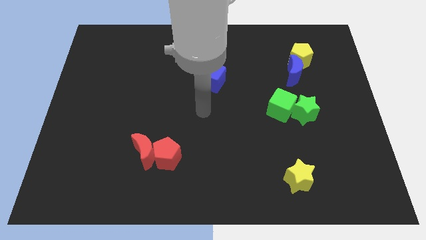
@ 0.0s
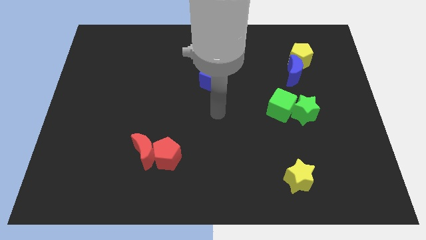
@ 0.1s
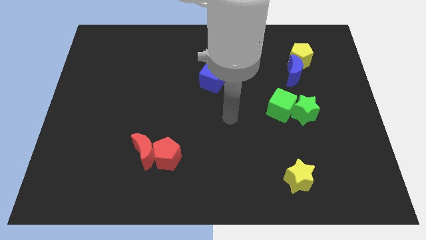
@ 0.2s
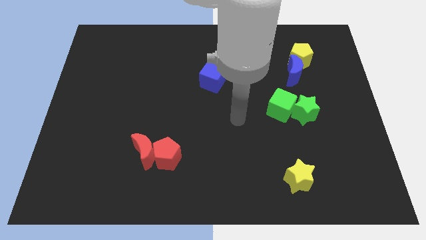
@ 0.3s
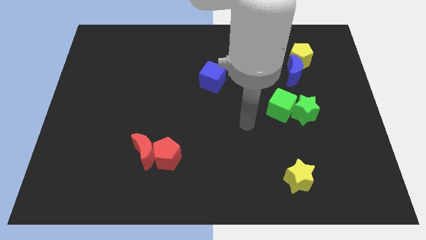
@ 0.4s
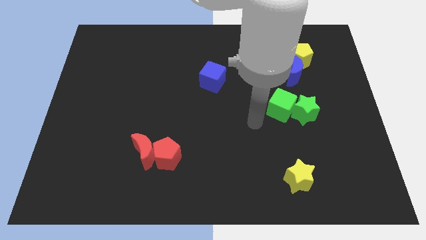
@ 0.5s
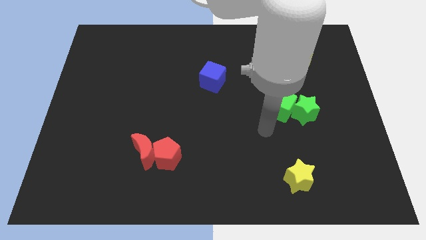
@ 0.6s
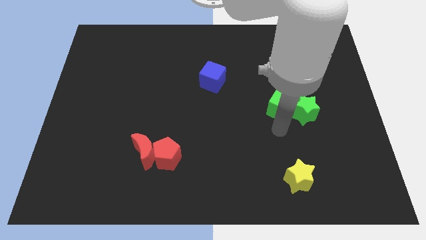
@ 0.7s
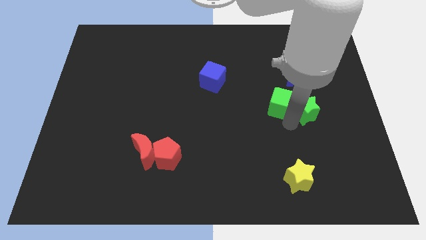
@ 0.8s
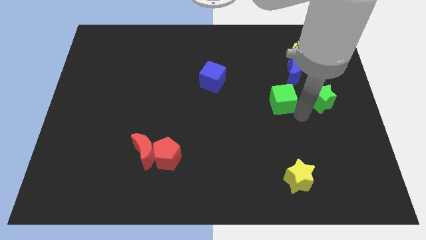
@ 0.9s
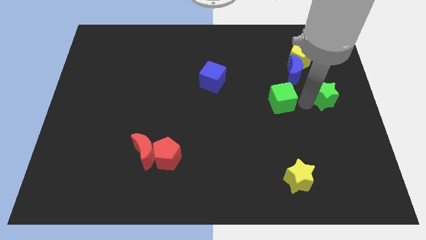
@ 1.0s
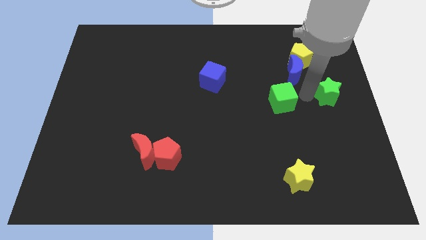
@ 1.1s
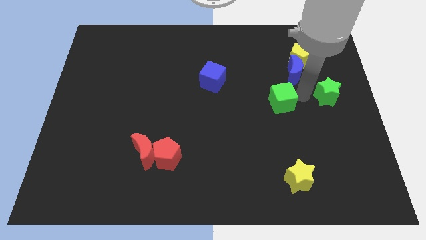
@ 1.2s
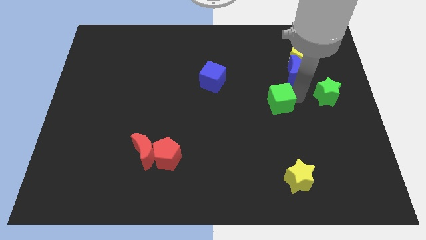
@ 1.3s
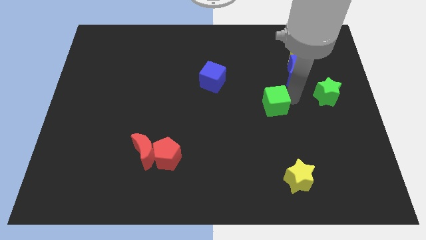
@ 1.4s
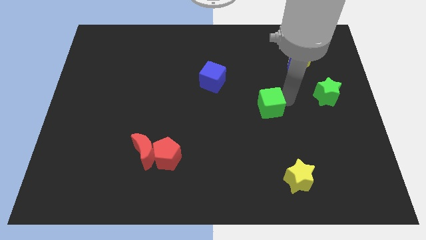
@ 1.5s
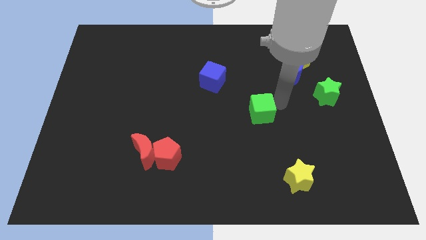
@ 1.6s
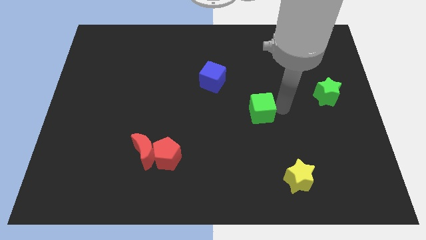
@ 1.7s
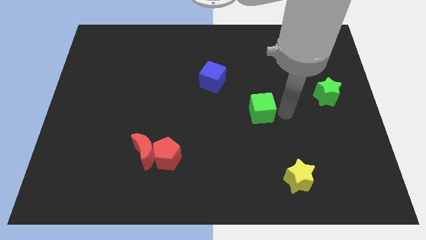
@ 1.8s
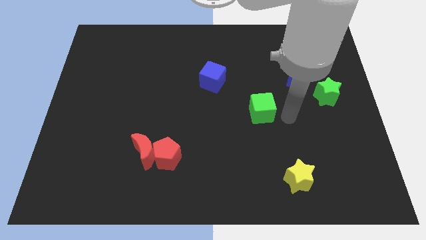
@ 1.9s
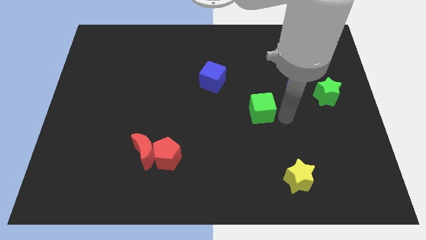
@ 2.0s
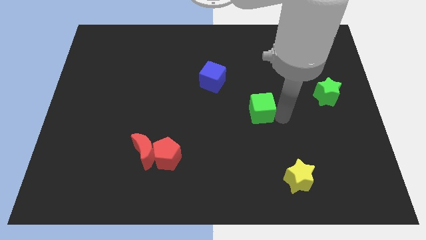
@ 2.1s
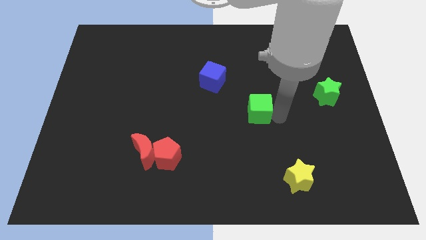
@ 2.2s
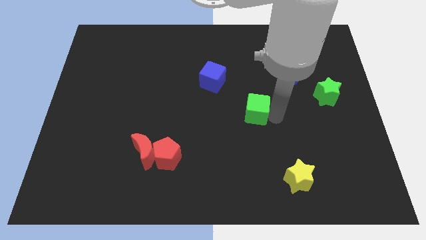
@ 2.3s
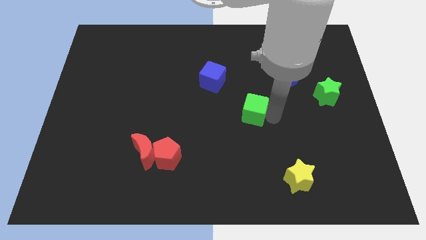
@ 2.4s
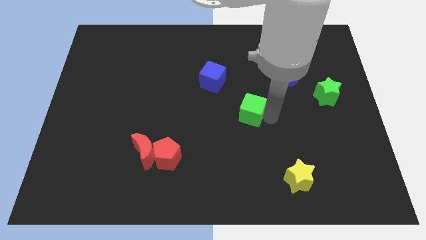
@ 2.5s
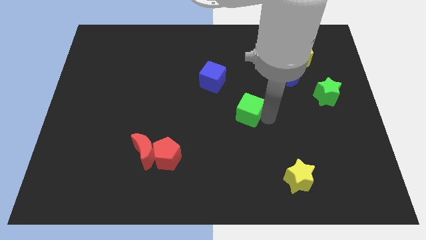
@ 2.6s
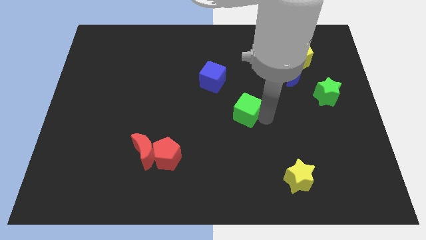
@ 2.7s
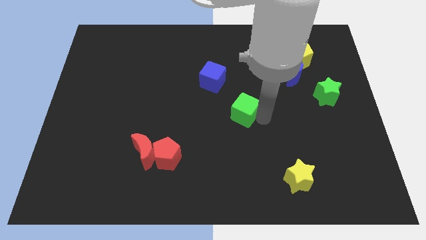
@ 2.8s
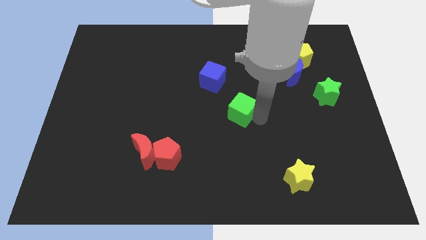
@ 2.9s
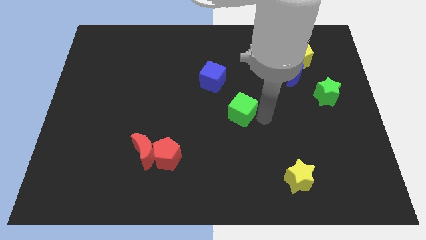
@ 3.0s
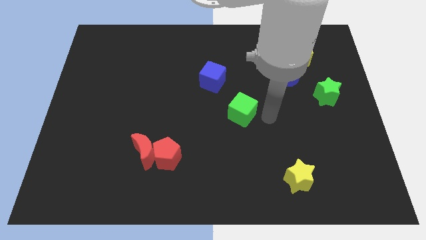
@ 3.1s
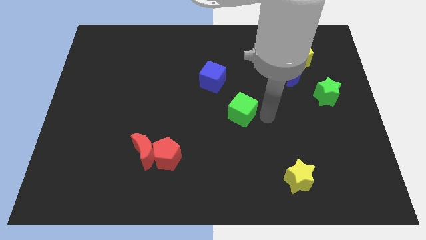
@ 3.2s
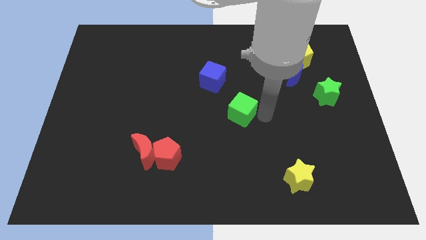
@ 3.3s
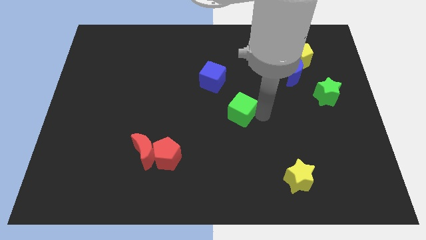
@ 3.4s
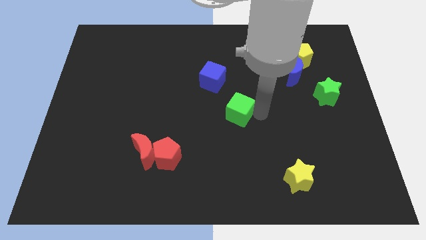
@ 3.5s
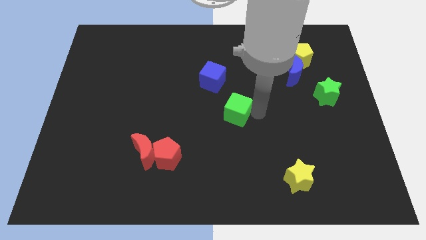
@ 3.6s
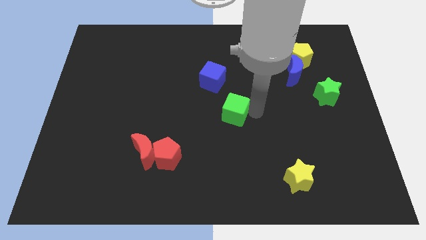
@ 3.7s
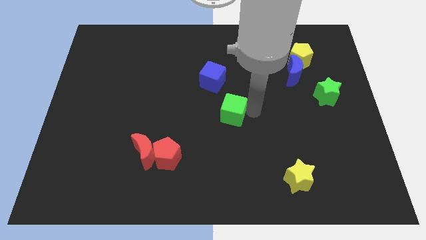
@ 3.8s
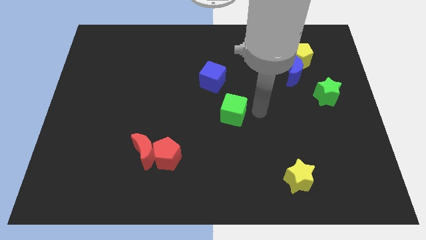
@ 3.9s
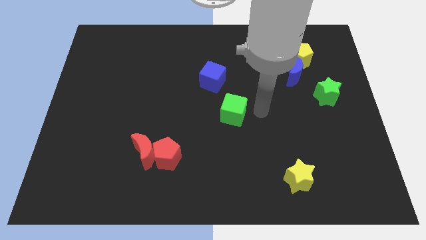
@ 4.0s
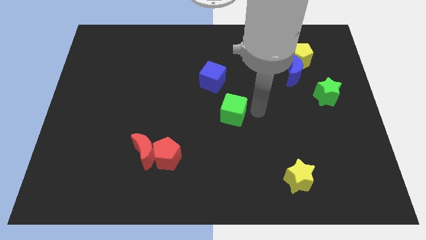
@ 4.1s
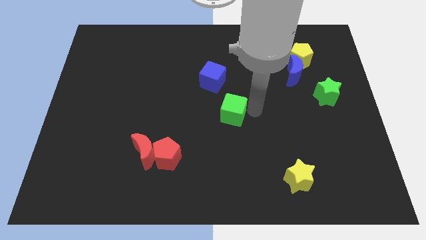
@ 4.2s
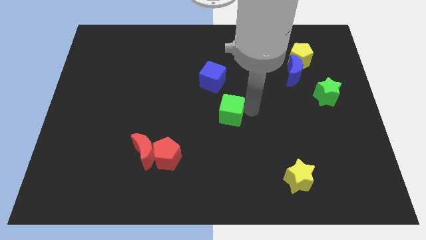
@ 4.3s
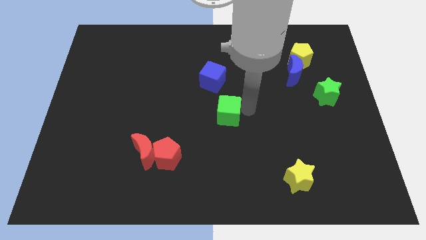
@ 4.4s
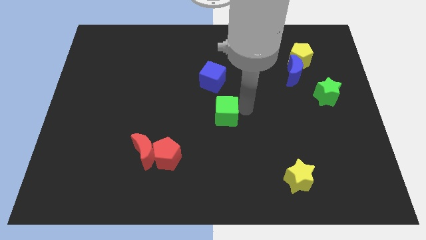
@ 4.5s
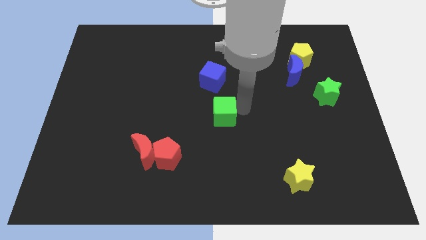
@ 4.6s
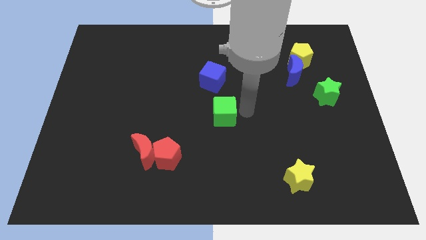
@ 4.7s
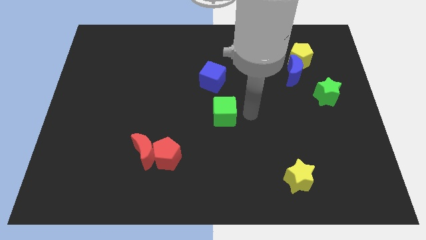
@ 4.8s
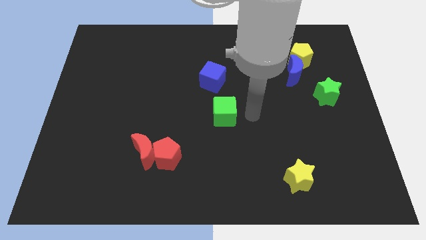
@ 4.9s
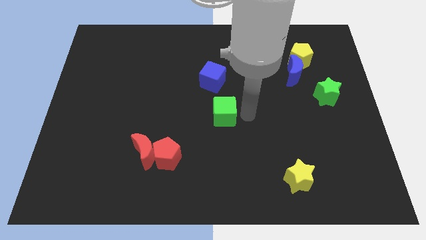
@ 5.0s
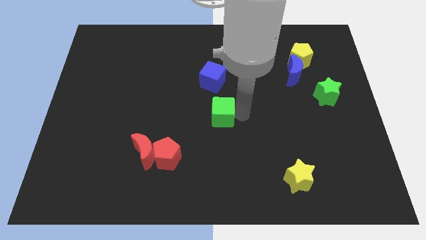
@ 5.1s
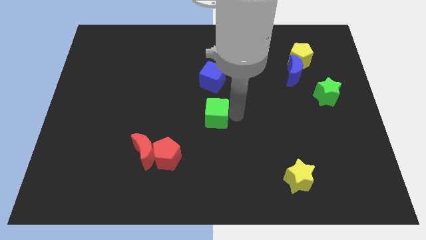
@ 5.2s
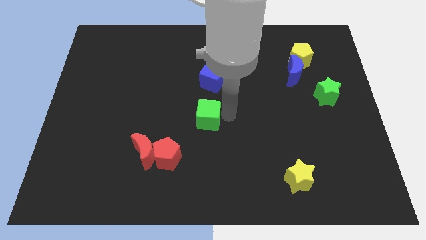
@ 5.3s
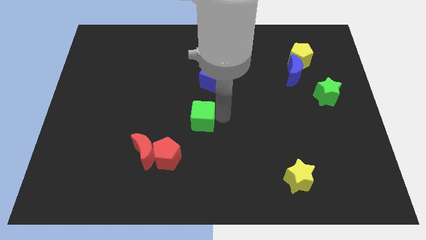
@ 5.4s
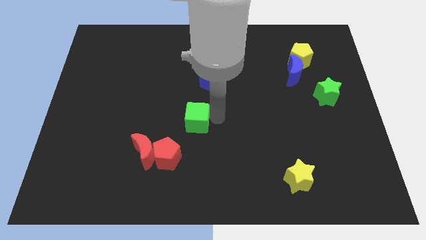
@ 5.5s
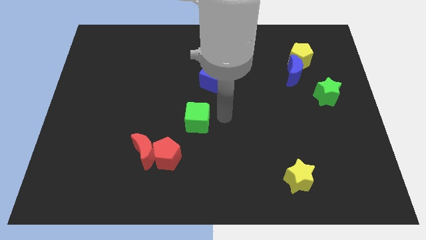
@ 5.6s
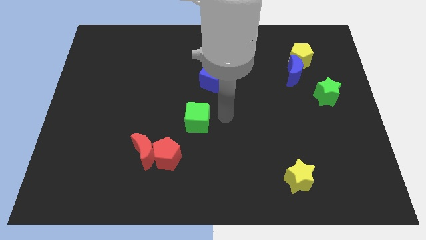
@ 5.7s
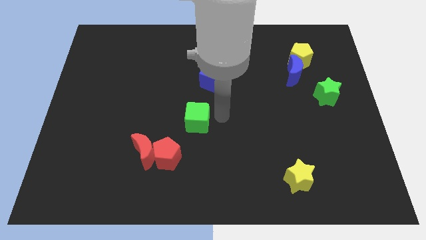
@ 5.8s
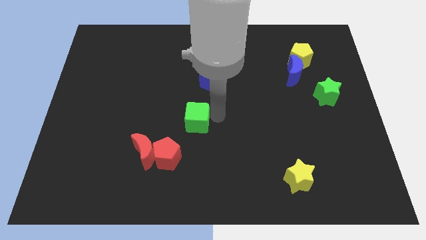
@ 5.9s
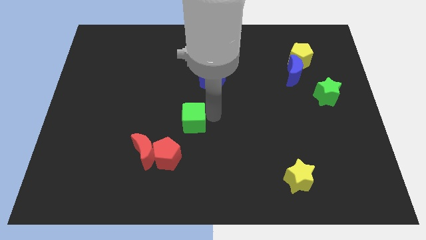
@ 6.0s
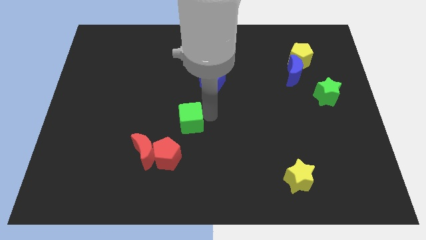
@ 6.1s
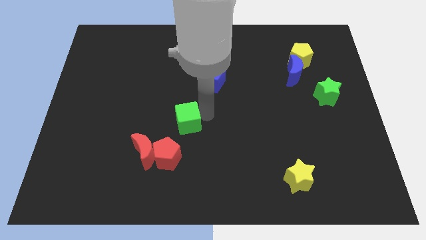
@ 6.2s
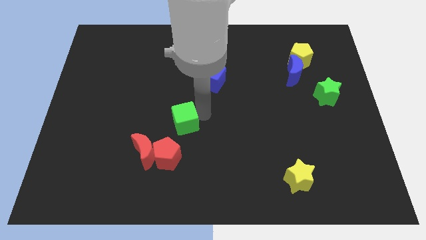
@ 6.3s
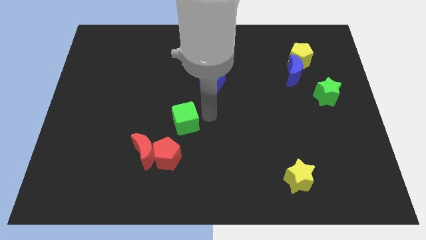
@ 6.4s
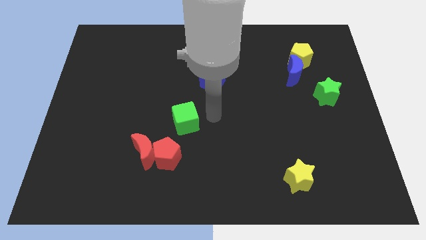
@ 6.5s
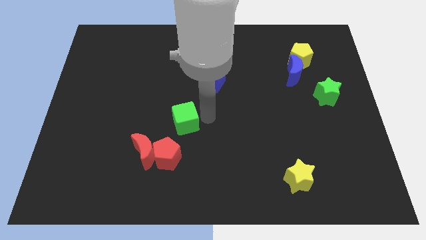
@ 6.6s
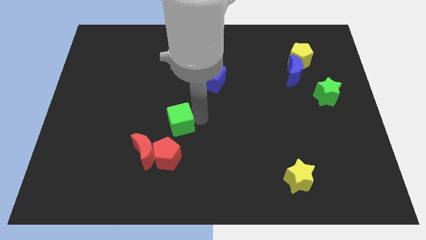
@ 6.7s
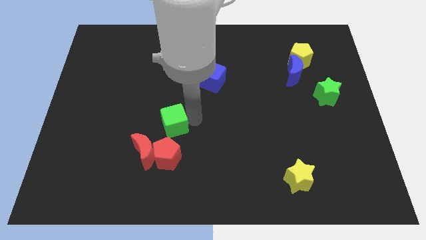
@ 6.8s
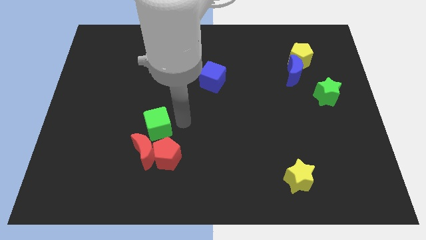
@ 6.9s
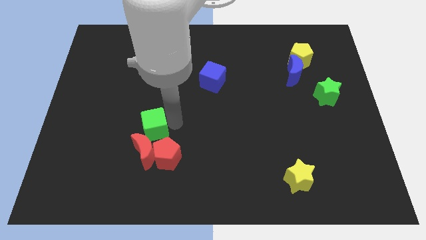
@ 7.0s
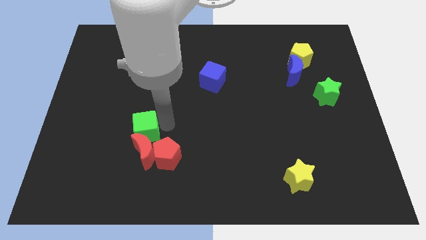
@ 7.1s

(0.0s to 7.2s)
push the green cube to the top left side of the red moon

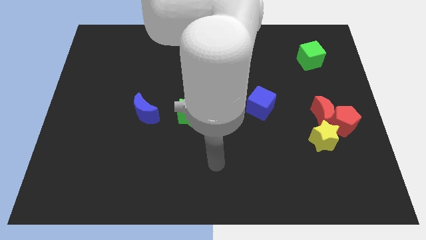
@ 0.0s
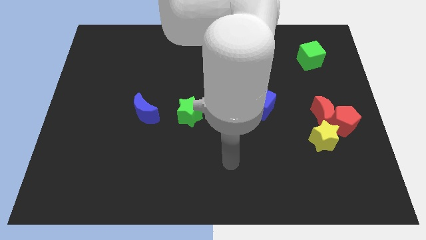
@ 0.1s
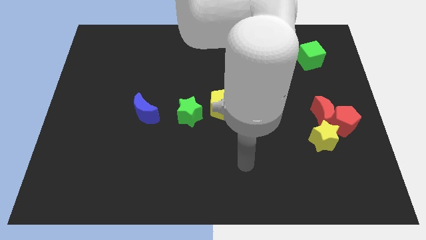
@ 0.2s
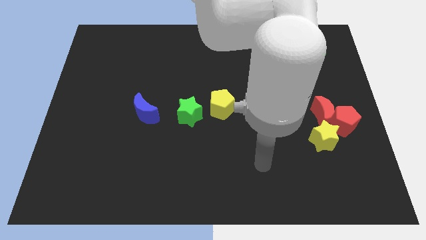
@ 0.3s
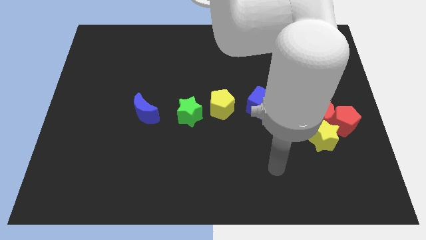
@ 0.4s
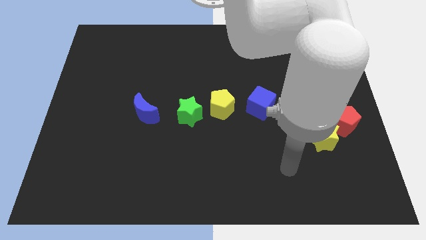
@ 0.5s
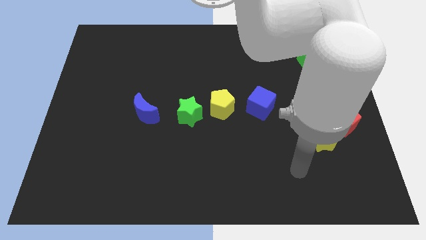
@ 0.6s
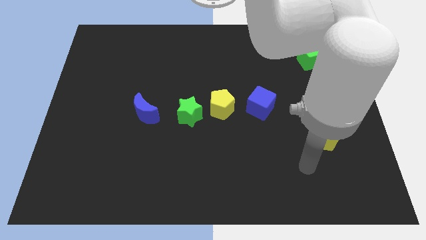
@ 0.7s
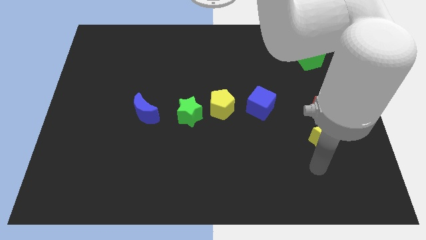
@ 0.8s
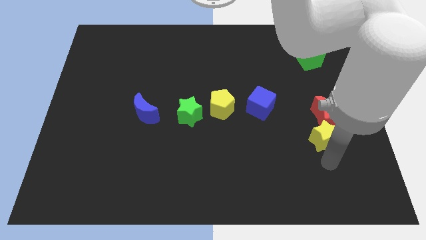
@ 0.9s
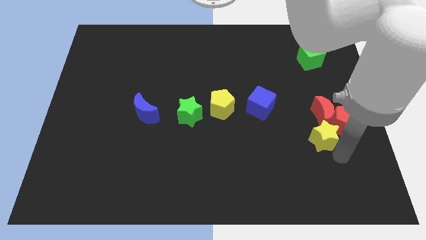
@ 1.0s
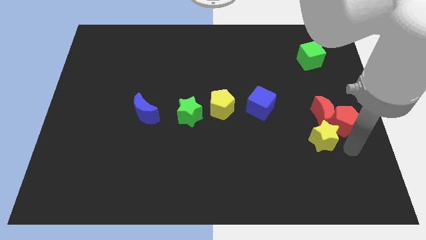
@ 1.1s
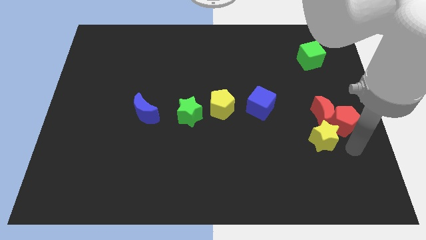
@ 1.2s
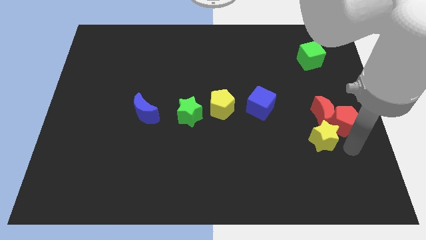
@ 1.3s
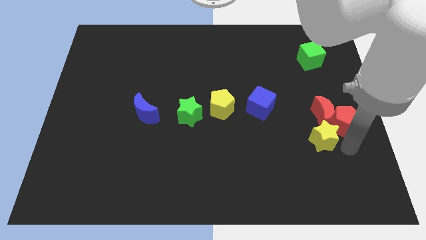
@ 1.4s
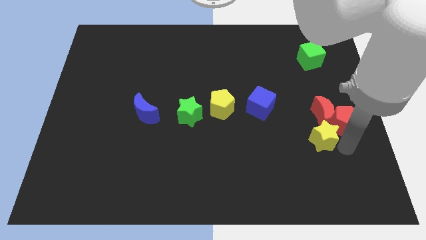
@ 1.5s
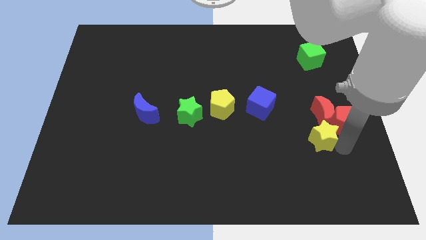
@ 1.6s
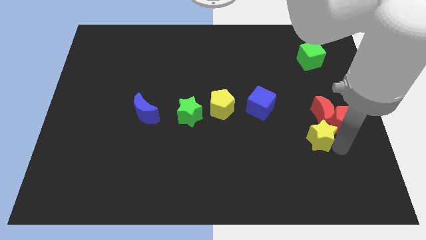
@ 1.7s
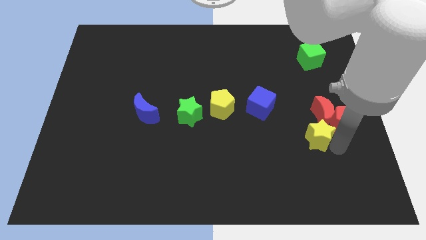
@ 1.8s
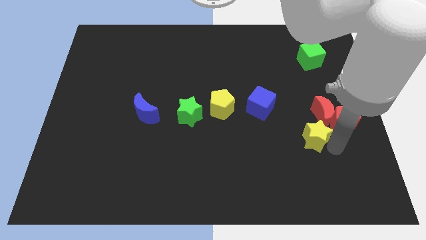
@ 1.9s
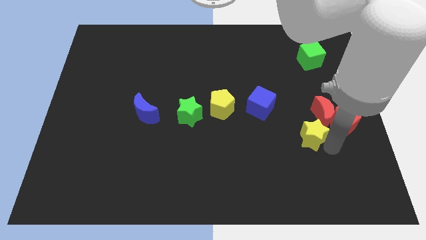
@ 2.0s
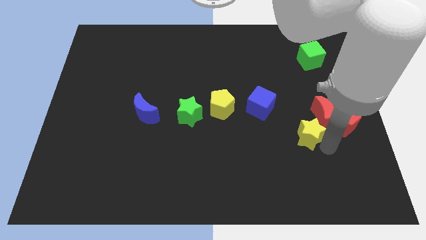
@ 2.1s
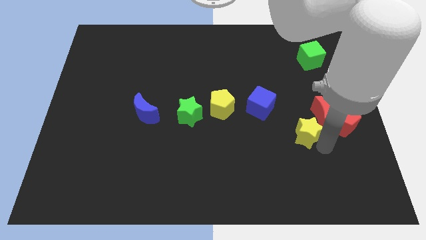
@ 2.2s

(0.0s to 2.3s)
move the yellow star to the bottom right of the blue cube
